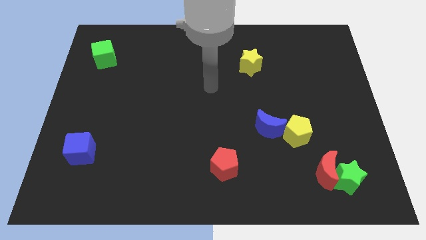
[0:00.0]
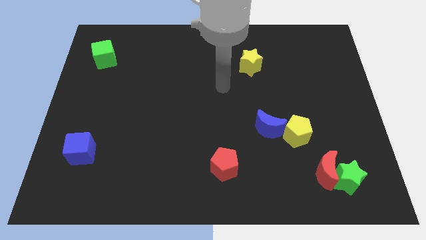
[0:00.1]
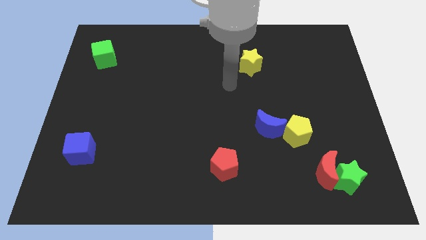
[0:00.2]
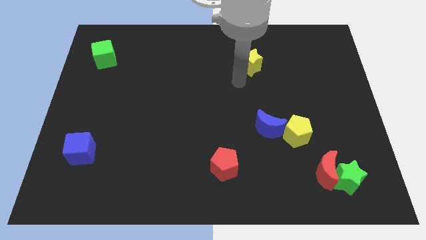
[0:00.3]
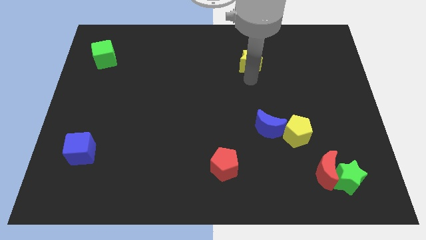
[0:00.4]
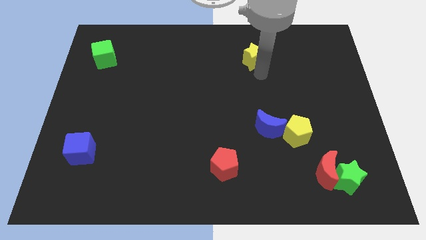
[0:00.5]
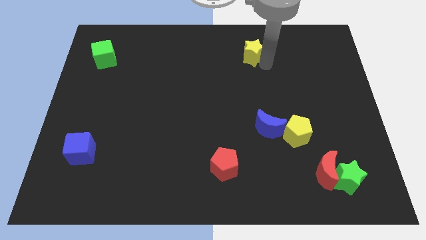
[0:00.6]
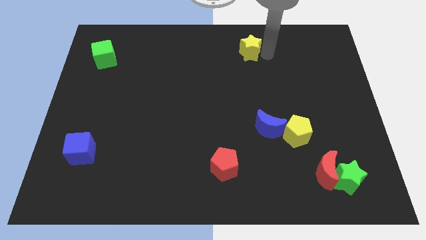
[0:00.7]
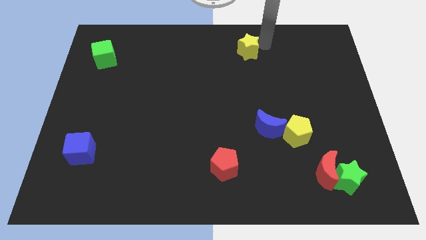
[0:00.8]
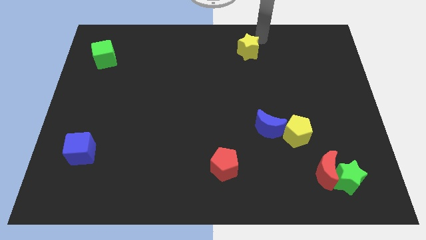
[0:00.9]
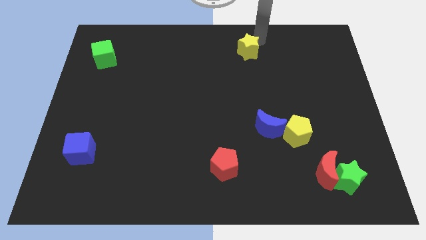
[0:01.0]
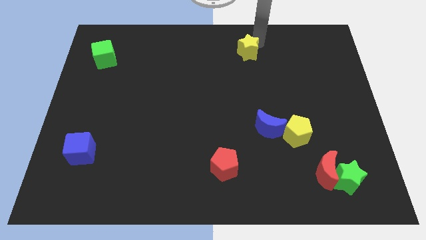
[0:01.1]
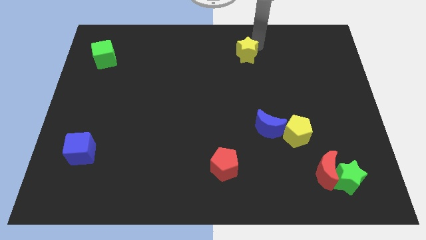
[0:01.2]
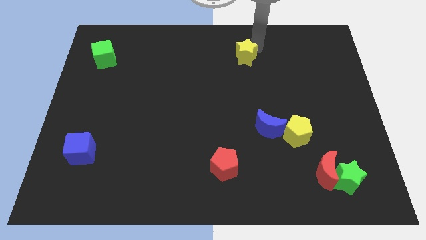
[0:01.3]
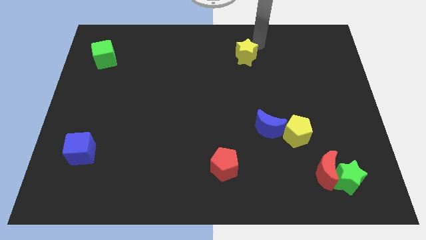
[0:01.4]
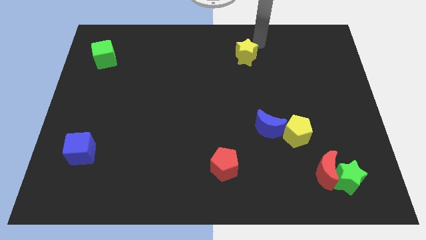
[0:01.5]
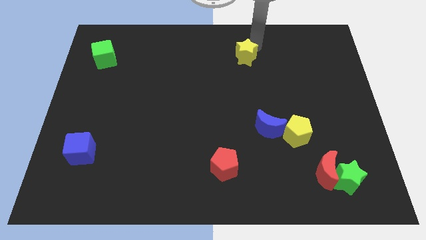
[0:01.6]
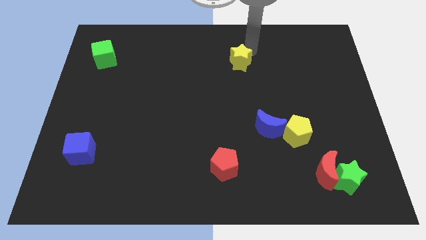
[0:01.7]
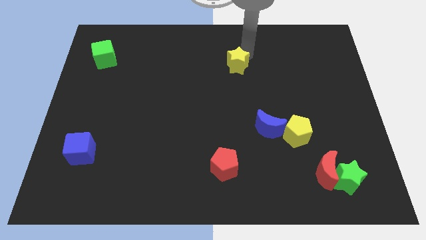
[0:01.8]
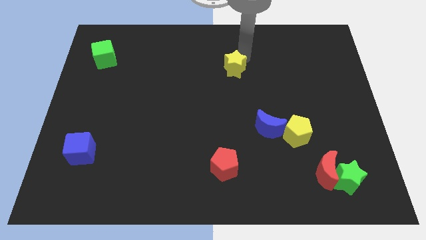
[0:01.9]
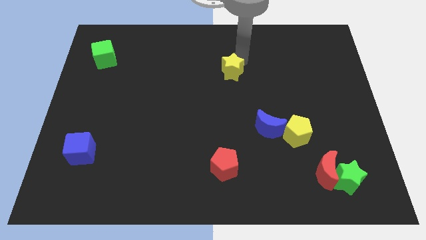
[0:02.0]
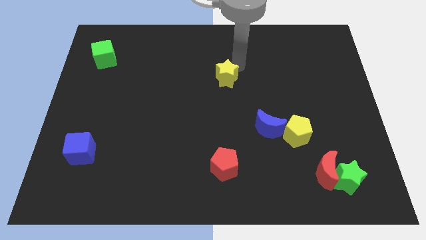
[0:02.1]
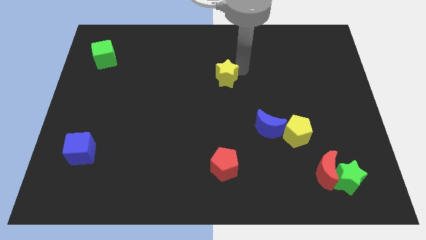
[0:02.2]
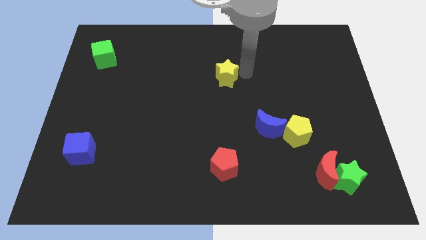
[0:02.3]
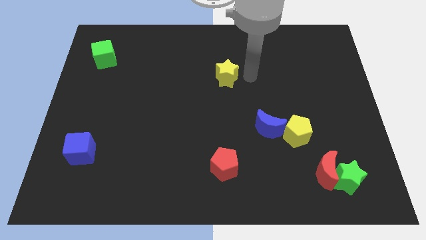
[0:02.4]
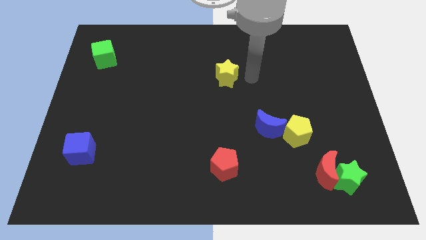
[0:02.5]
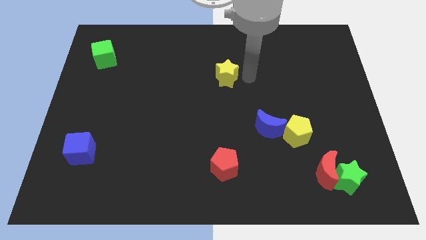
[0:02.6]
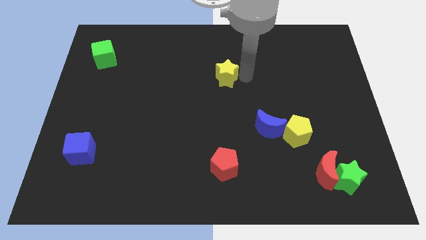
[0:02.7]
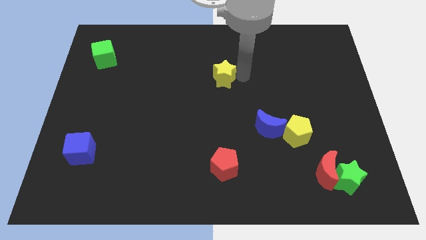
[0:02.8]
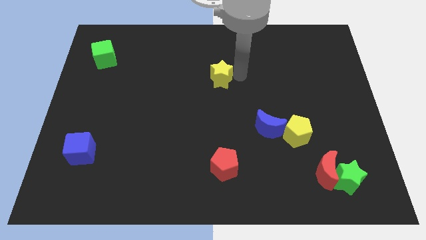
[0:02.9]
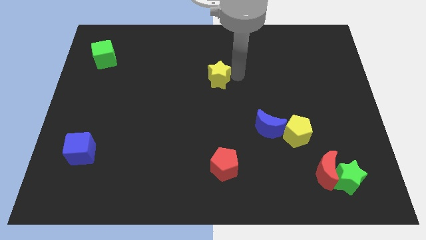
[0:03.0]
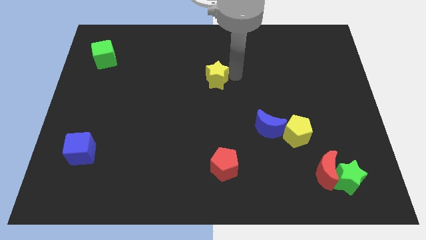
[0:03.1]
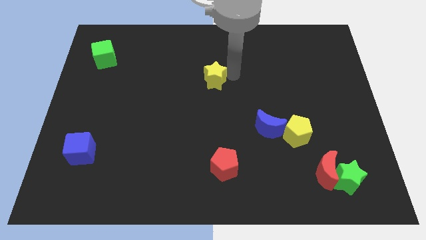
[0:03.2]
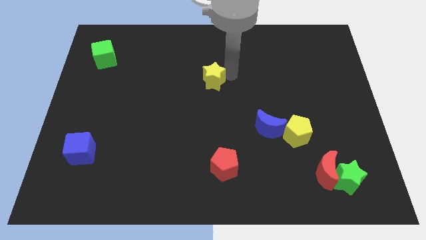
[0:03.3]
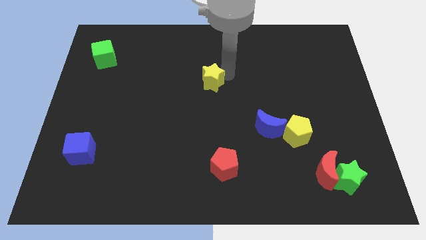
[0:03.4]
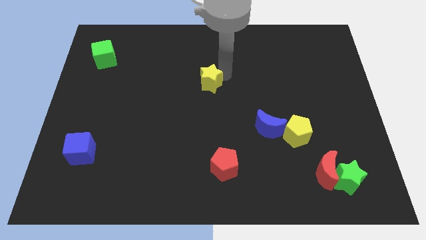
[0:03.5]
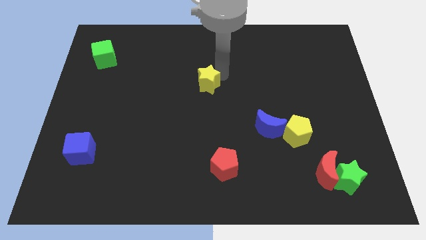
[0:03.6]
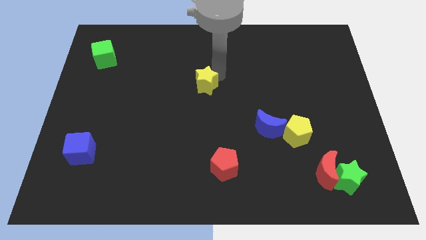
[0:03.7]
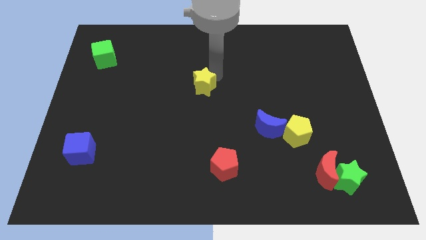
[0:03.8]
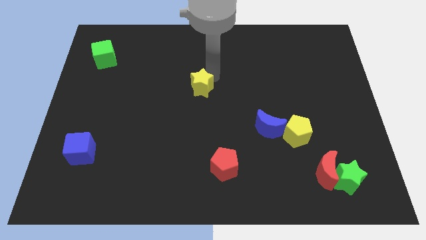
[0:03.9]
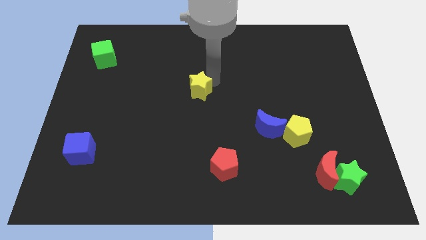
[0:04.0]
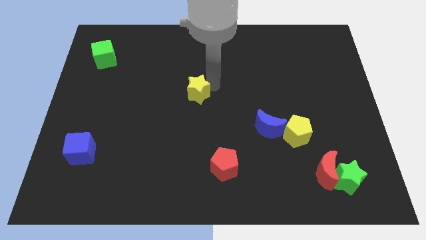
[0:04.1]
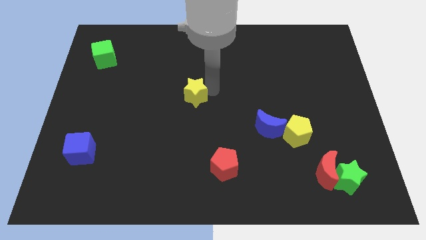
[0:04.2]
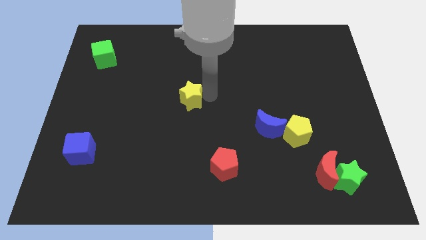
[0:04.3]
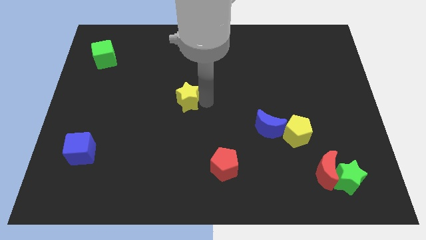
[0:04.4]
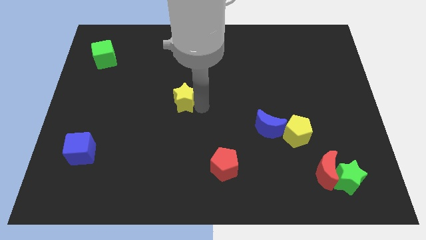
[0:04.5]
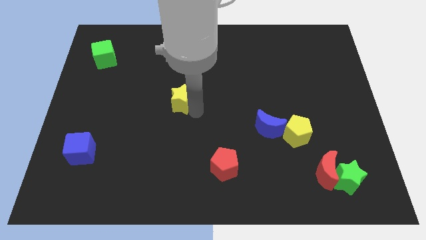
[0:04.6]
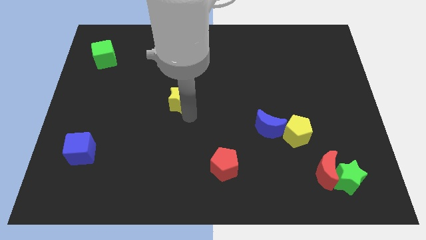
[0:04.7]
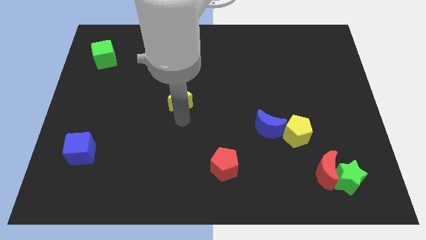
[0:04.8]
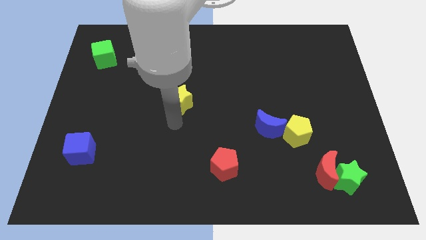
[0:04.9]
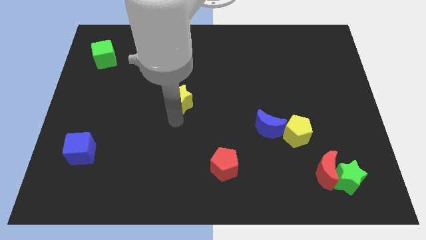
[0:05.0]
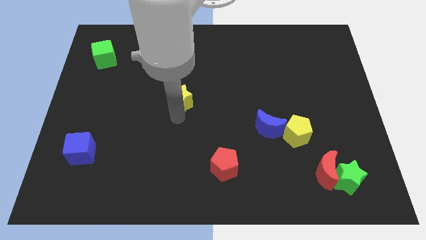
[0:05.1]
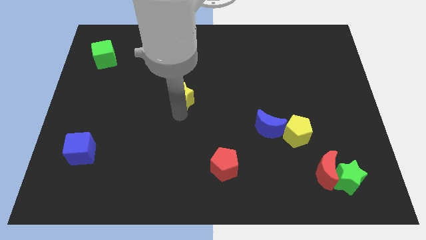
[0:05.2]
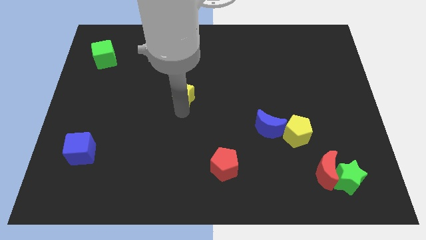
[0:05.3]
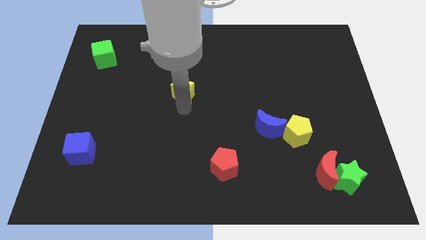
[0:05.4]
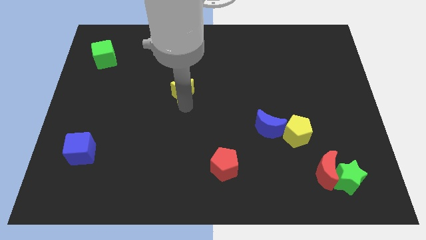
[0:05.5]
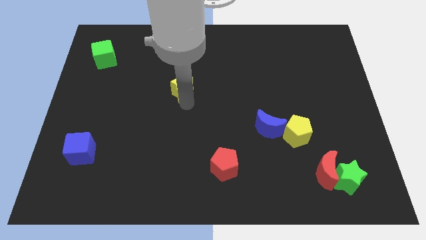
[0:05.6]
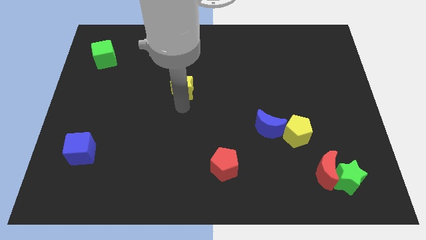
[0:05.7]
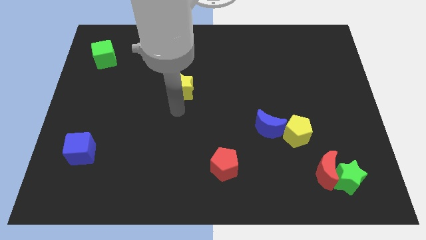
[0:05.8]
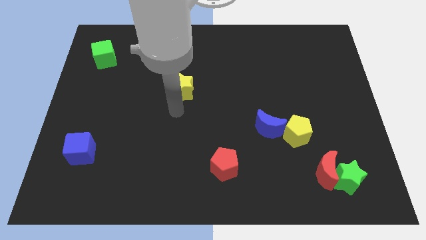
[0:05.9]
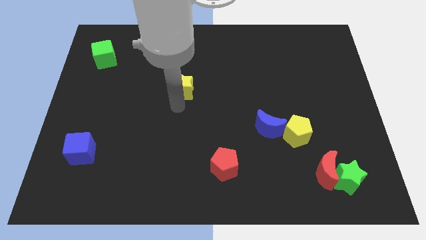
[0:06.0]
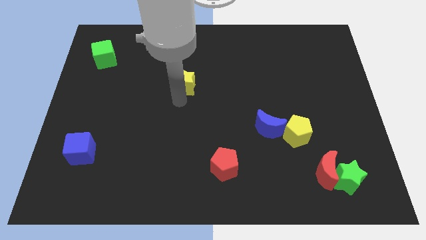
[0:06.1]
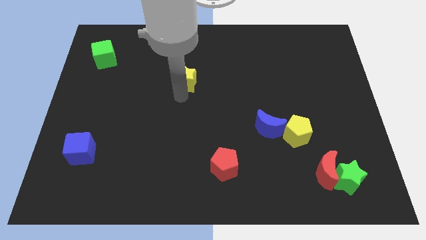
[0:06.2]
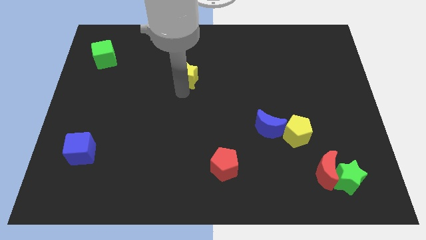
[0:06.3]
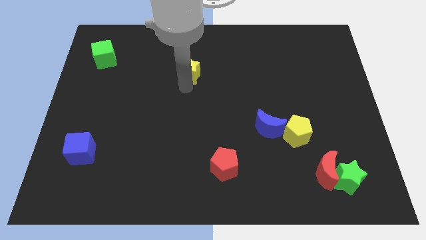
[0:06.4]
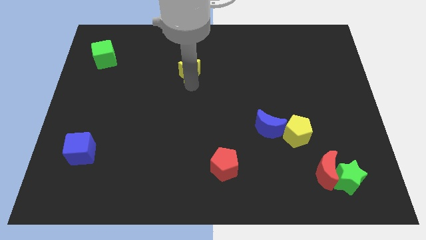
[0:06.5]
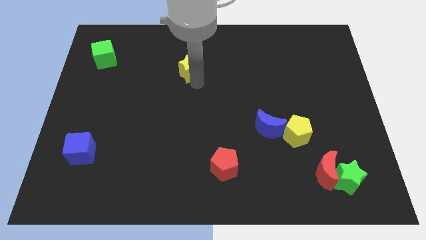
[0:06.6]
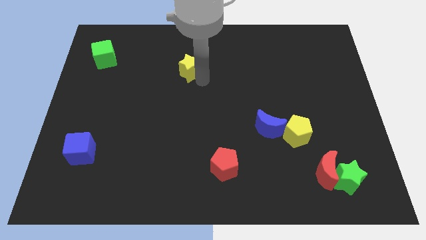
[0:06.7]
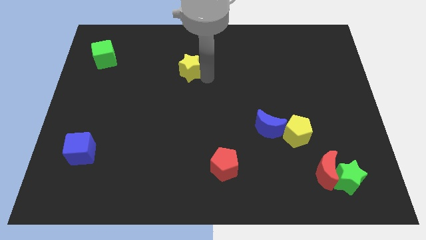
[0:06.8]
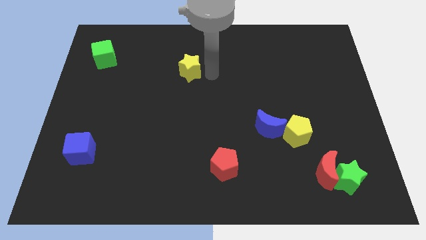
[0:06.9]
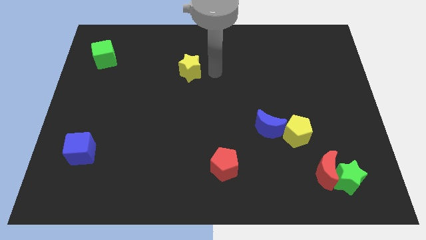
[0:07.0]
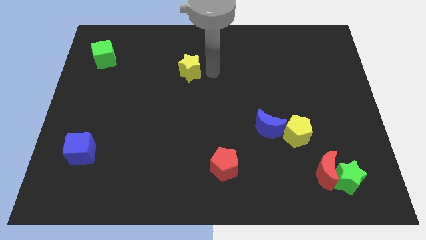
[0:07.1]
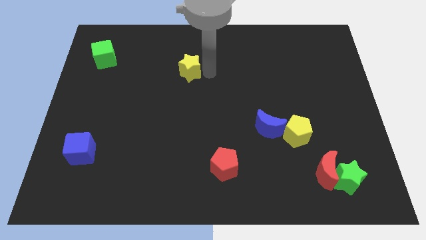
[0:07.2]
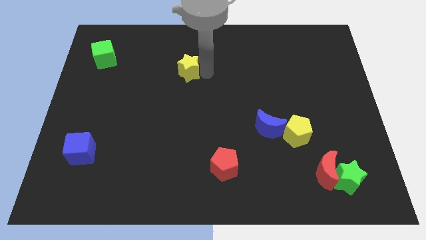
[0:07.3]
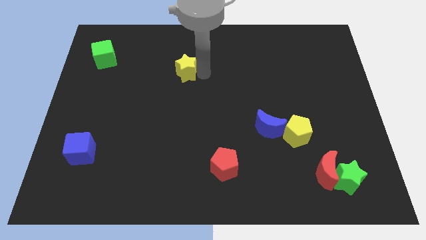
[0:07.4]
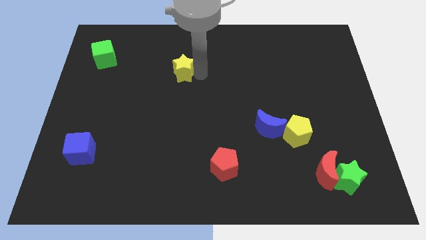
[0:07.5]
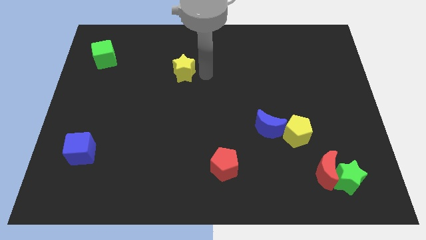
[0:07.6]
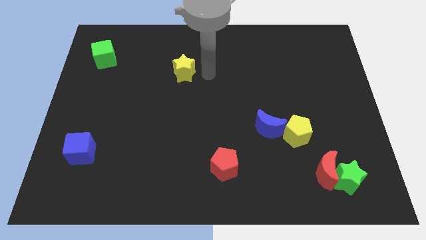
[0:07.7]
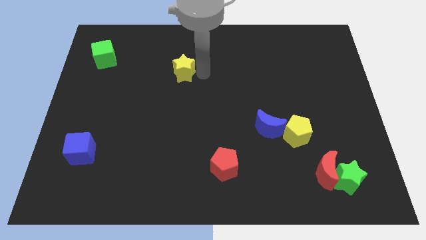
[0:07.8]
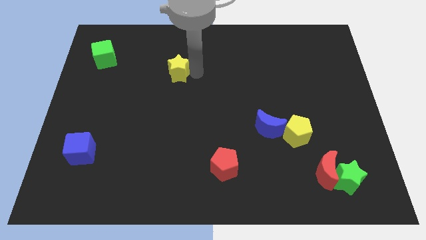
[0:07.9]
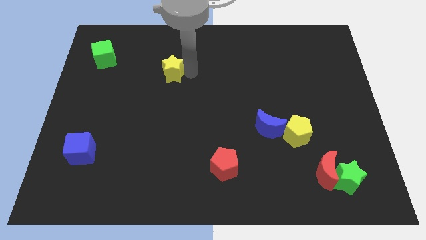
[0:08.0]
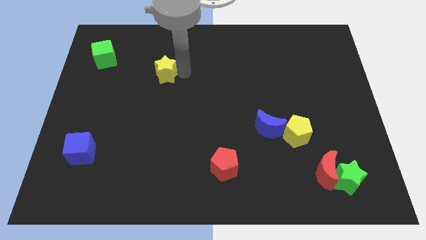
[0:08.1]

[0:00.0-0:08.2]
slide the yellow star left
